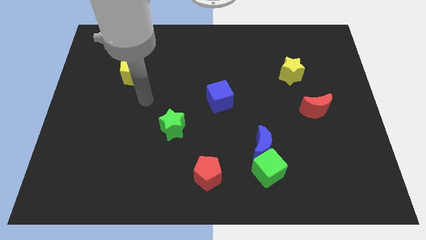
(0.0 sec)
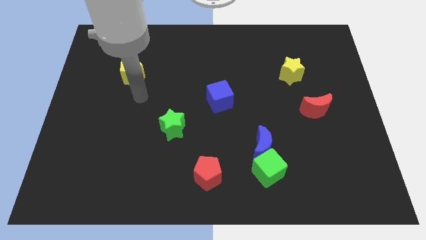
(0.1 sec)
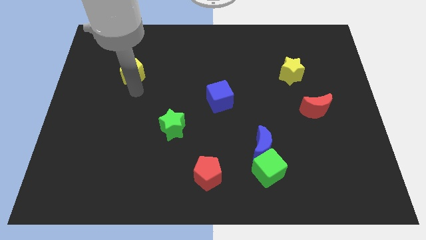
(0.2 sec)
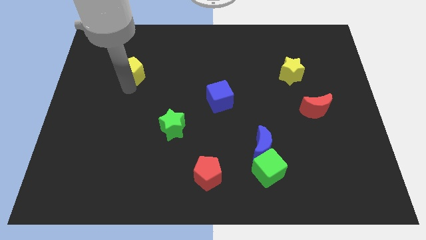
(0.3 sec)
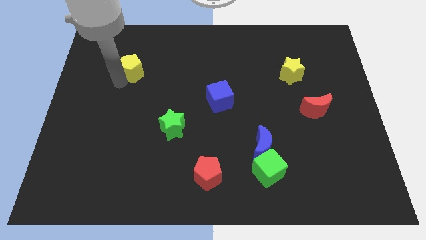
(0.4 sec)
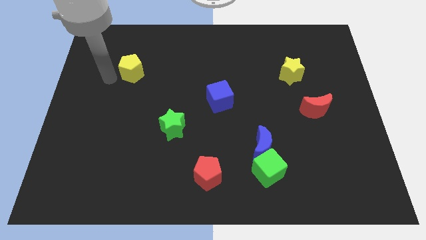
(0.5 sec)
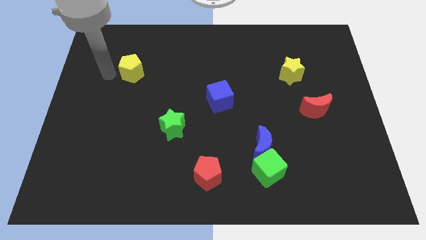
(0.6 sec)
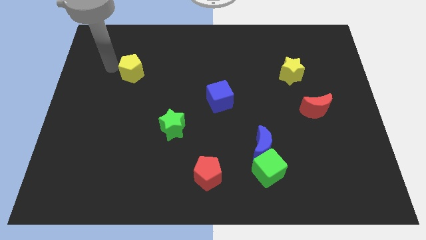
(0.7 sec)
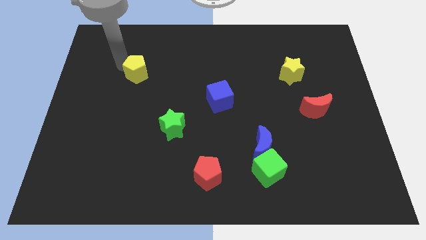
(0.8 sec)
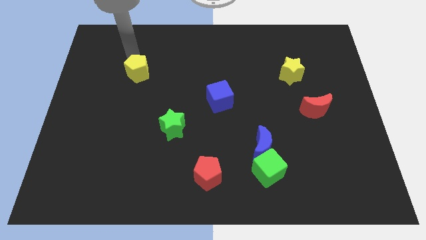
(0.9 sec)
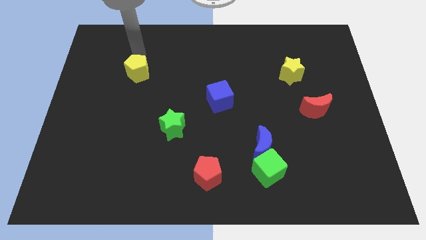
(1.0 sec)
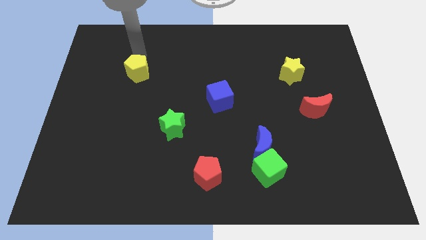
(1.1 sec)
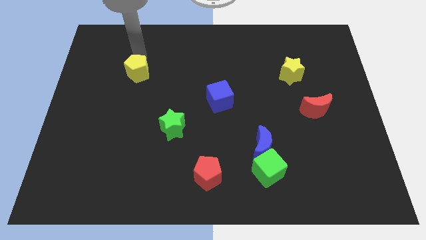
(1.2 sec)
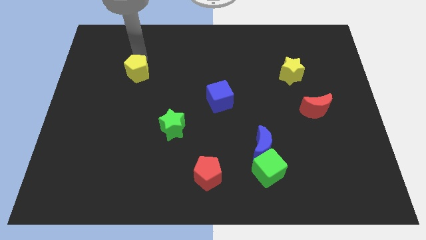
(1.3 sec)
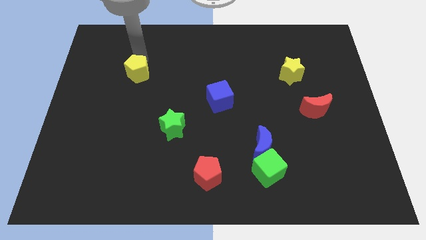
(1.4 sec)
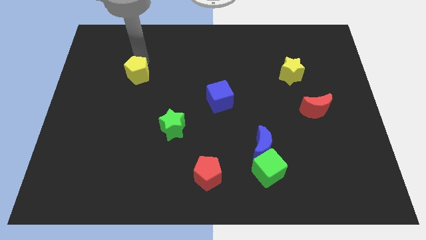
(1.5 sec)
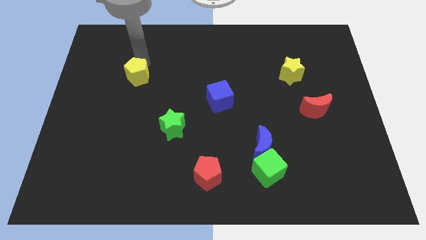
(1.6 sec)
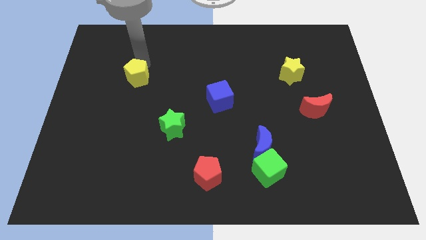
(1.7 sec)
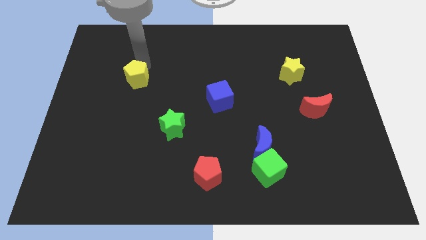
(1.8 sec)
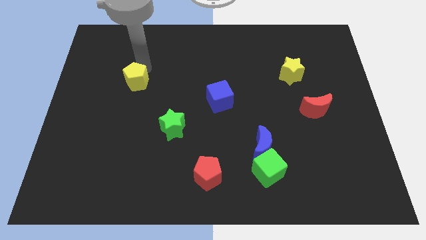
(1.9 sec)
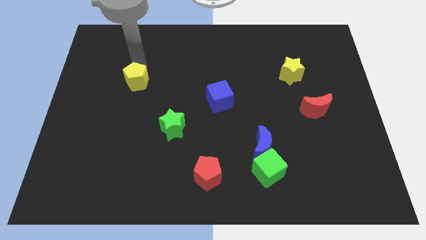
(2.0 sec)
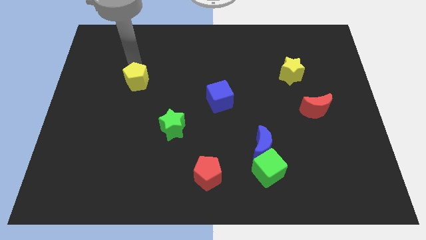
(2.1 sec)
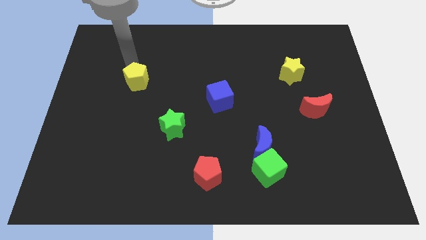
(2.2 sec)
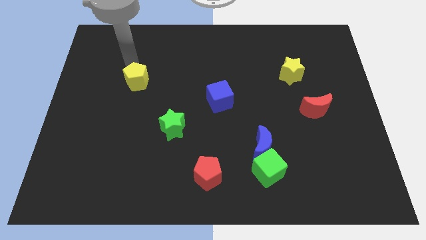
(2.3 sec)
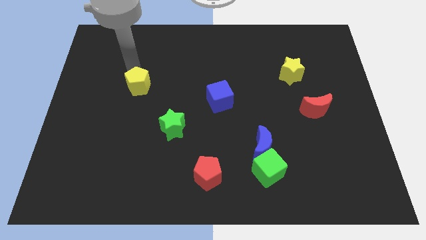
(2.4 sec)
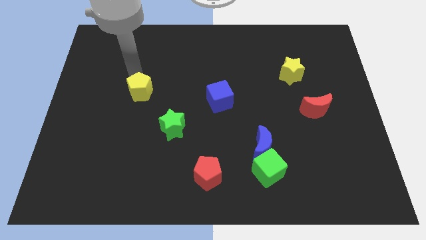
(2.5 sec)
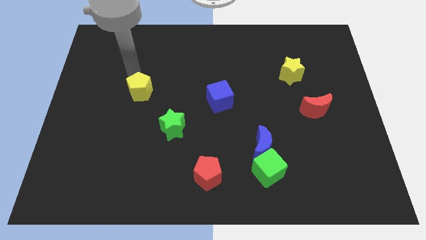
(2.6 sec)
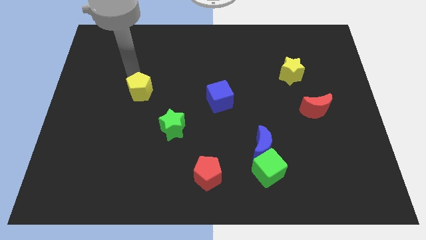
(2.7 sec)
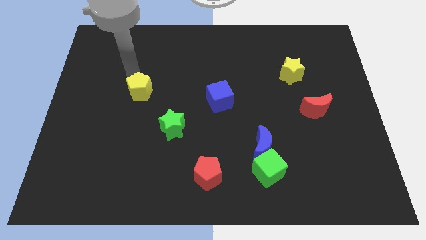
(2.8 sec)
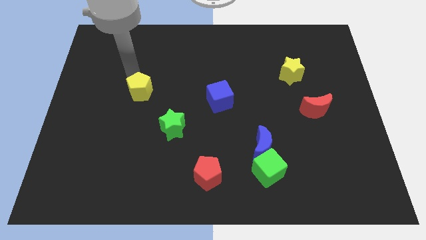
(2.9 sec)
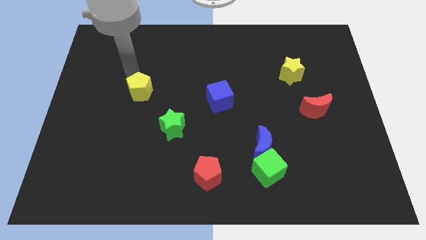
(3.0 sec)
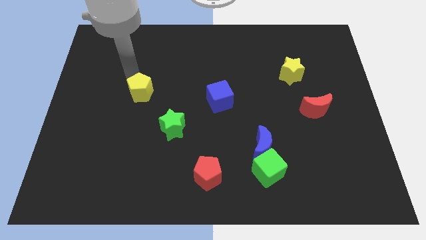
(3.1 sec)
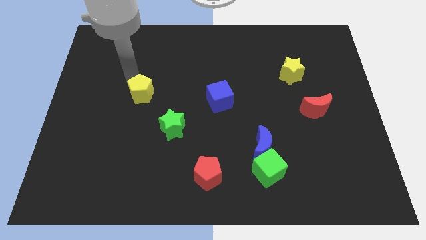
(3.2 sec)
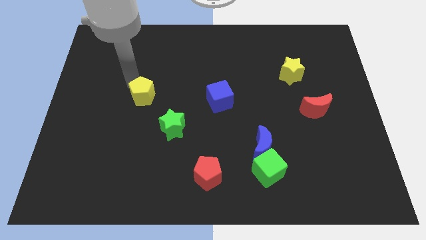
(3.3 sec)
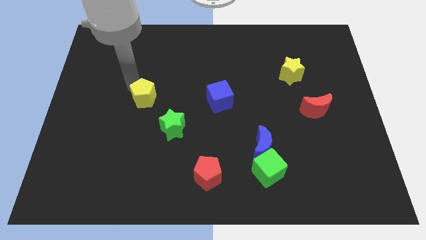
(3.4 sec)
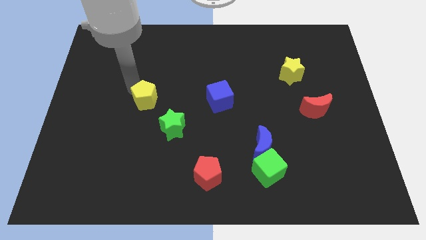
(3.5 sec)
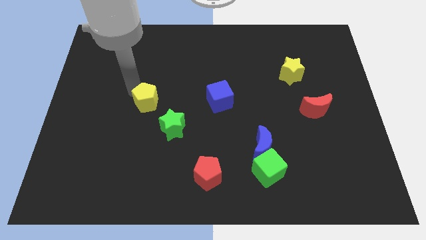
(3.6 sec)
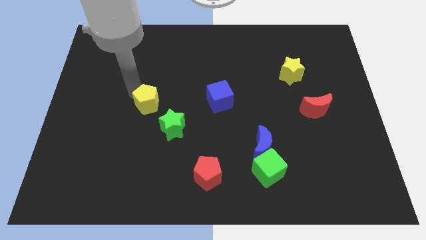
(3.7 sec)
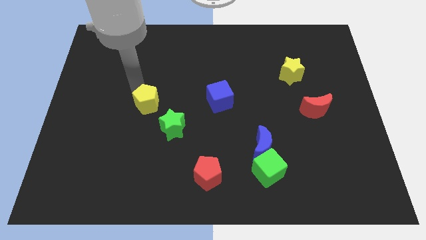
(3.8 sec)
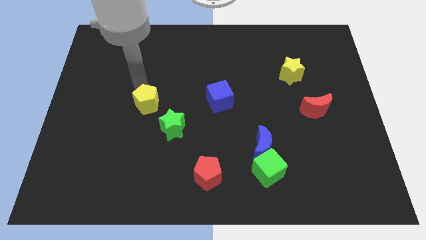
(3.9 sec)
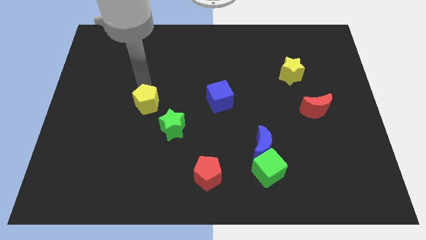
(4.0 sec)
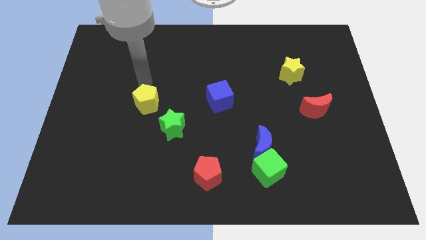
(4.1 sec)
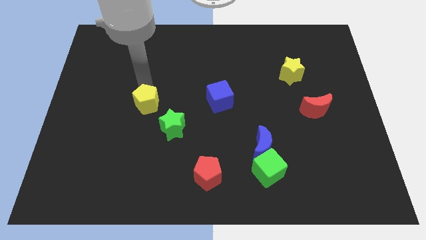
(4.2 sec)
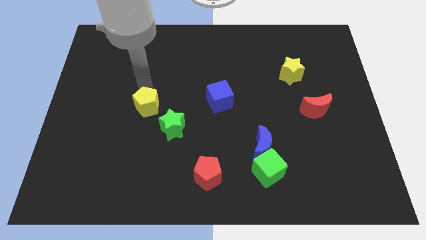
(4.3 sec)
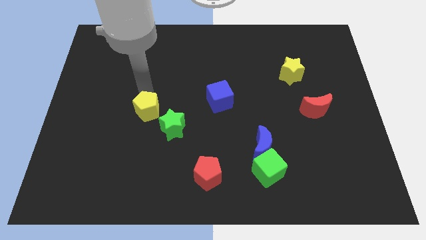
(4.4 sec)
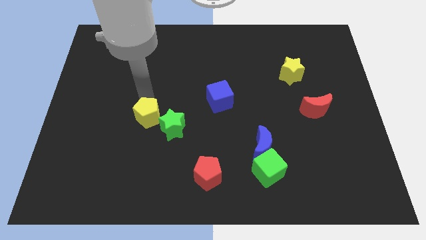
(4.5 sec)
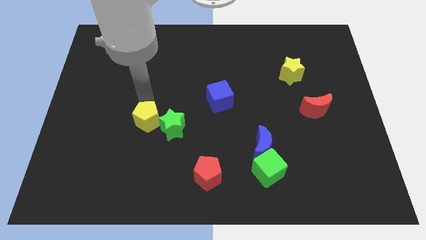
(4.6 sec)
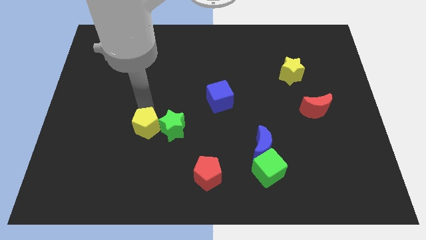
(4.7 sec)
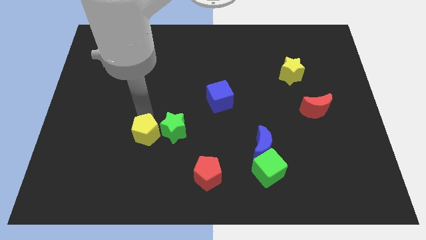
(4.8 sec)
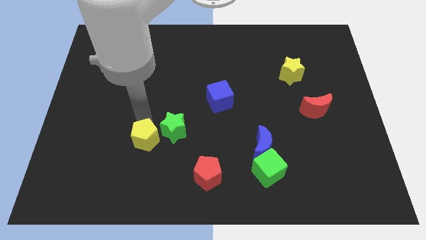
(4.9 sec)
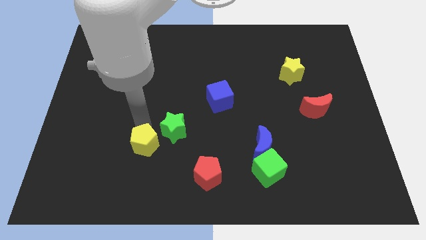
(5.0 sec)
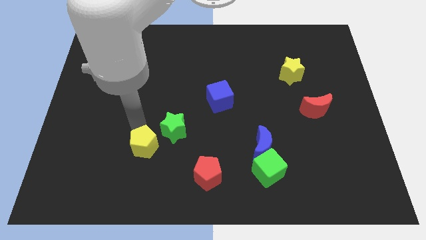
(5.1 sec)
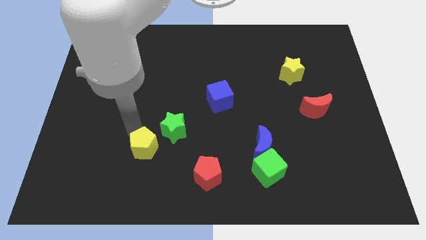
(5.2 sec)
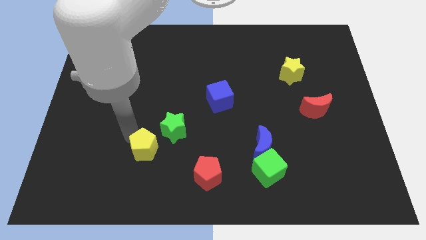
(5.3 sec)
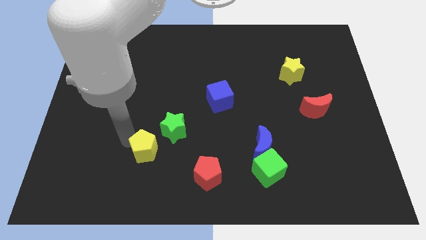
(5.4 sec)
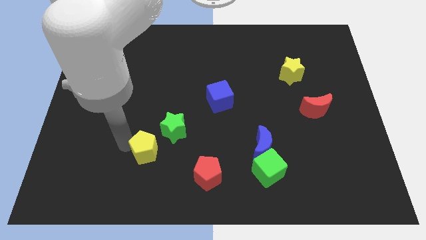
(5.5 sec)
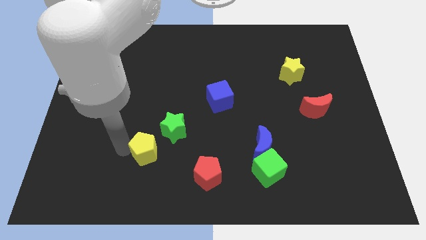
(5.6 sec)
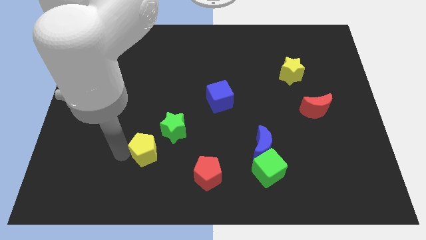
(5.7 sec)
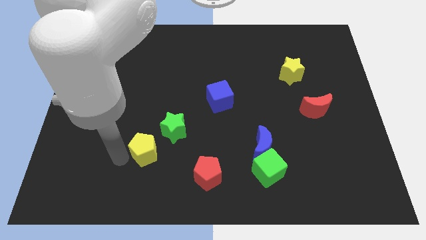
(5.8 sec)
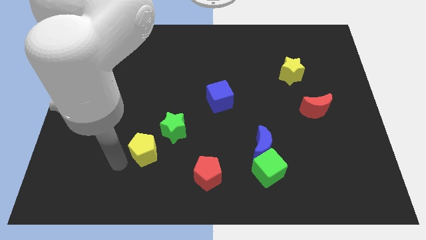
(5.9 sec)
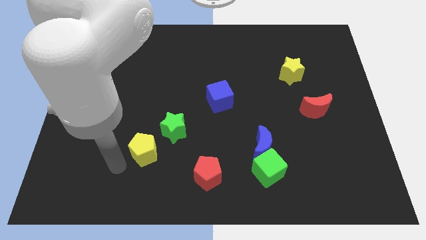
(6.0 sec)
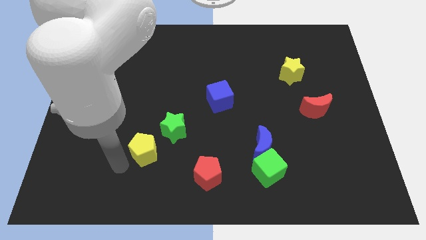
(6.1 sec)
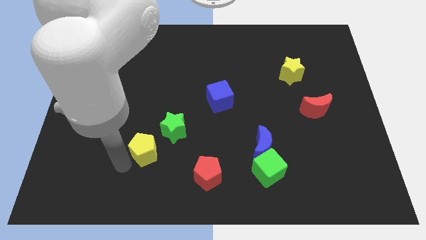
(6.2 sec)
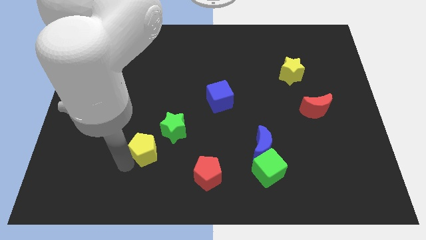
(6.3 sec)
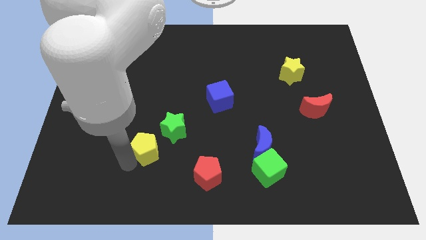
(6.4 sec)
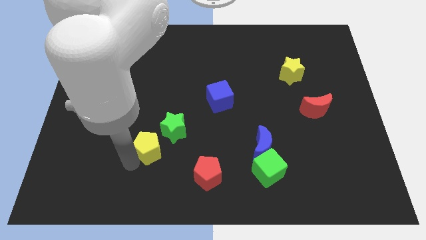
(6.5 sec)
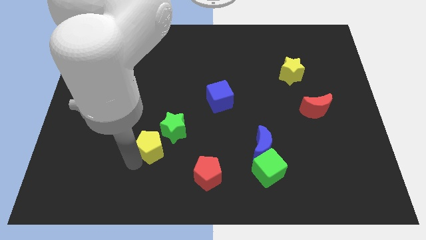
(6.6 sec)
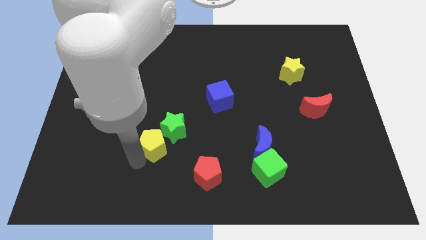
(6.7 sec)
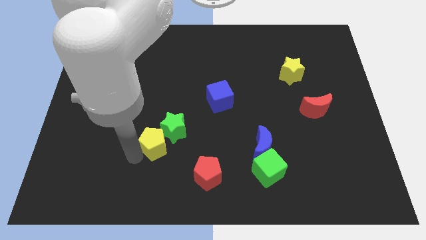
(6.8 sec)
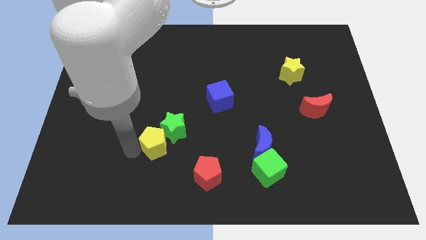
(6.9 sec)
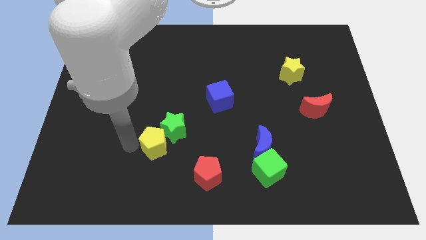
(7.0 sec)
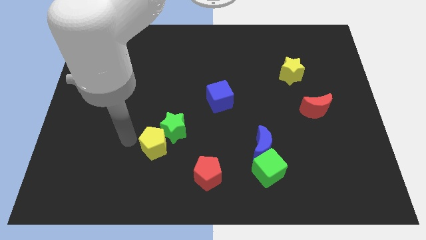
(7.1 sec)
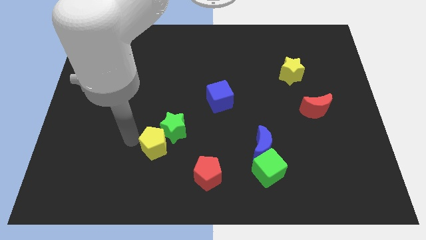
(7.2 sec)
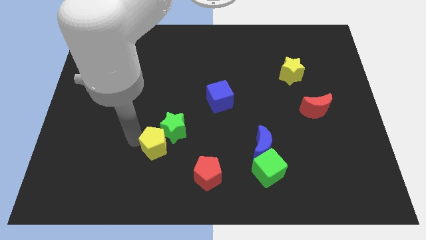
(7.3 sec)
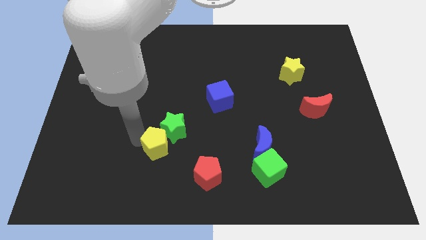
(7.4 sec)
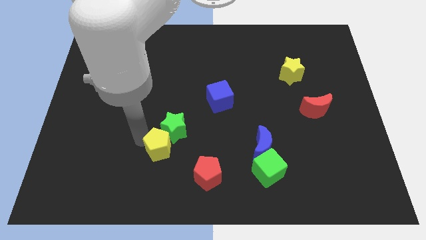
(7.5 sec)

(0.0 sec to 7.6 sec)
slide the yellow pentagon to the top left side of the red pentagon
